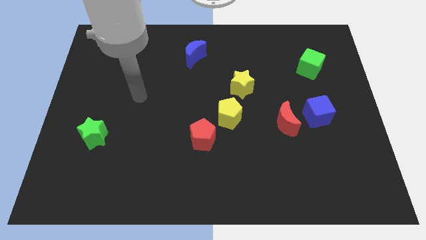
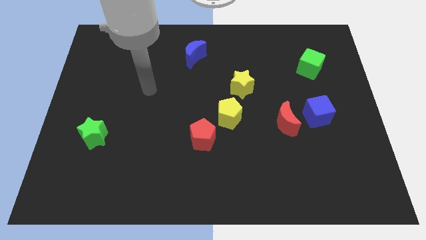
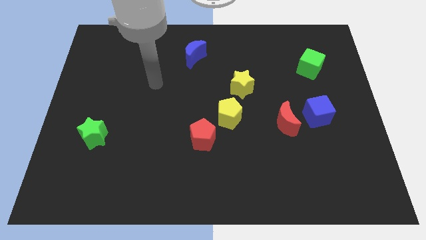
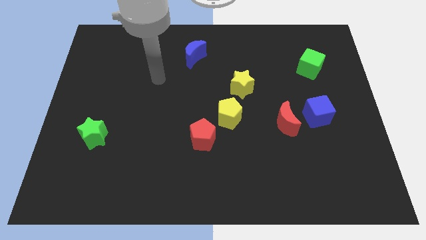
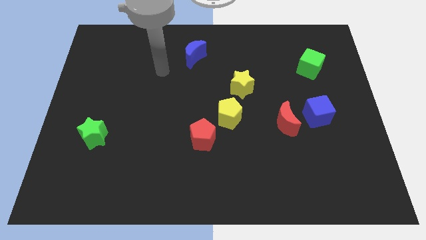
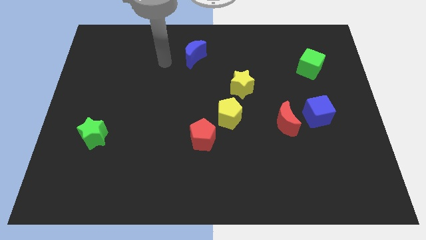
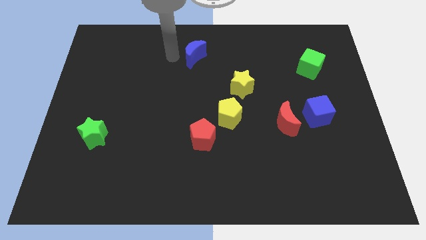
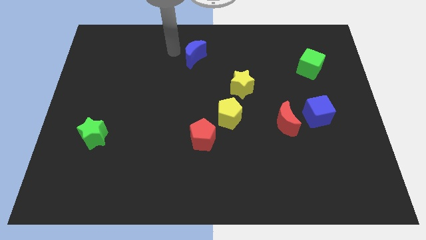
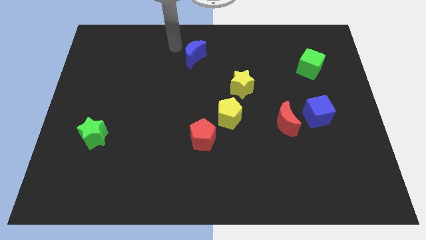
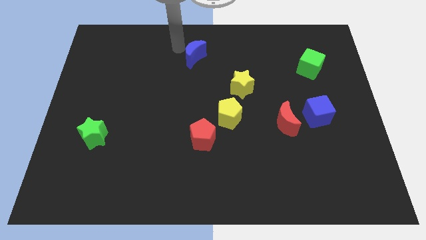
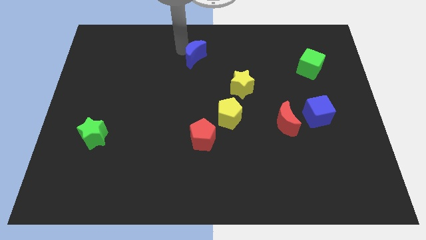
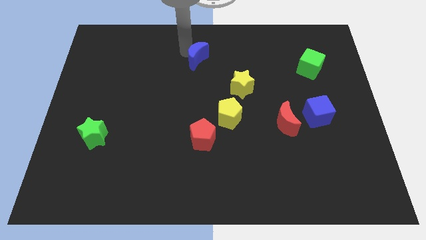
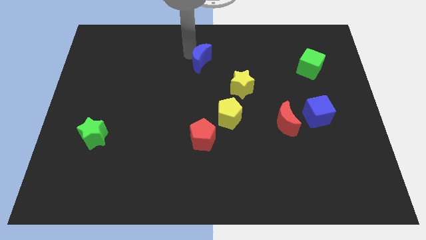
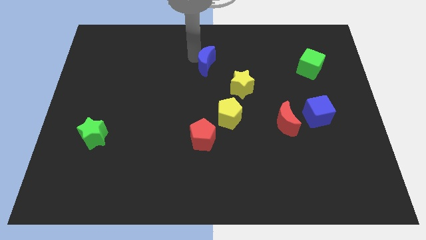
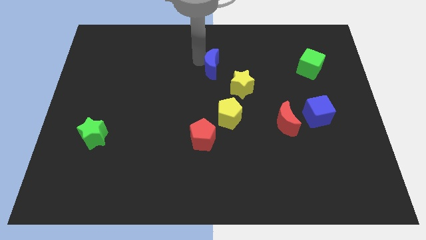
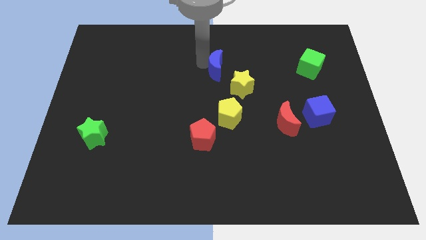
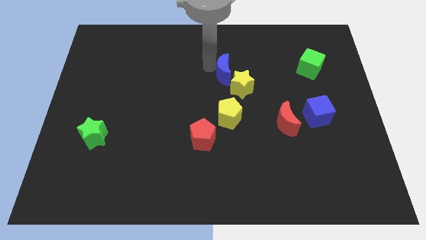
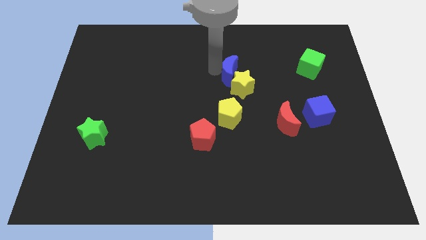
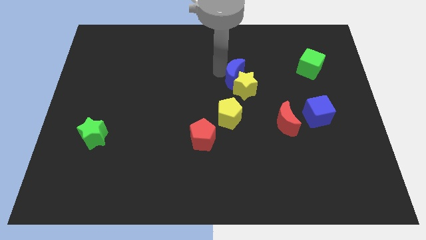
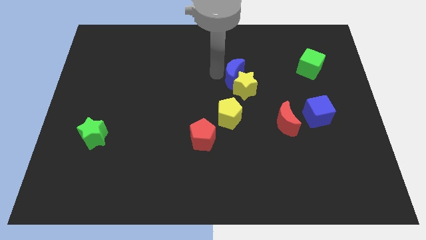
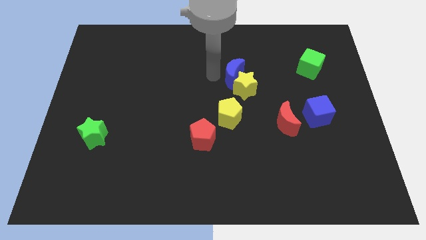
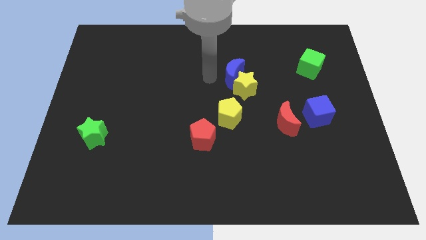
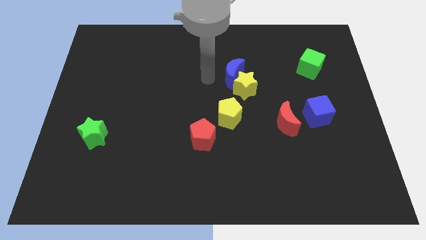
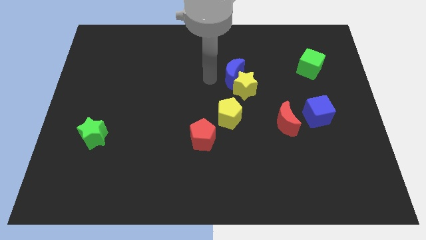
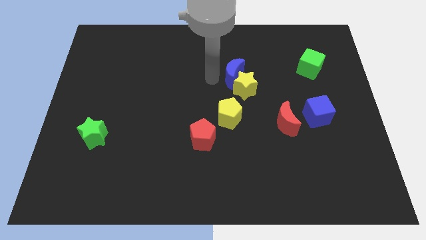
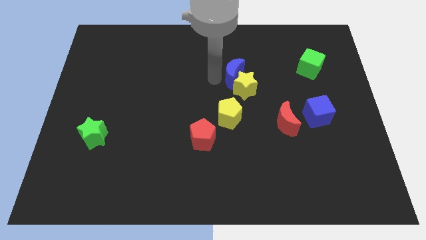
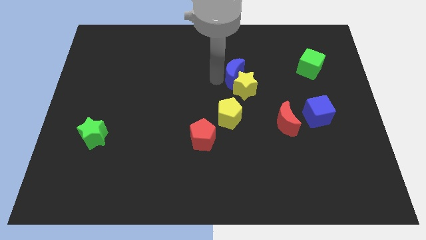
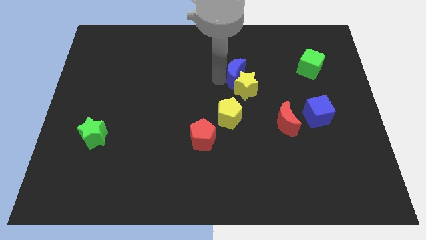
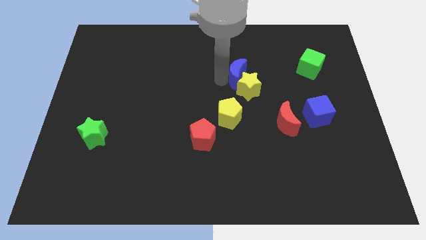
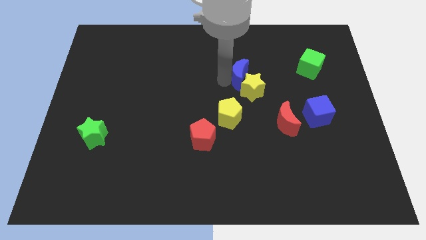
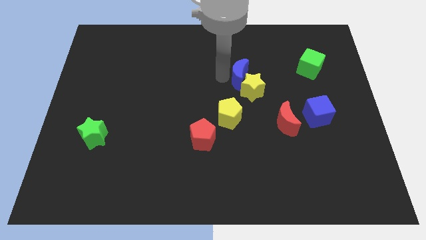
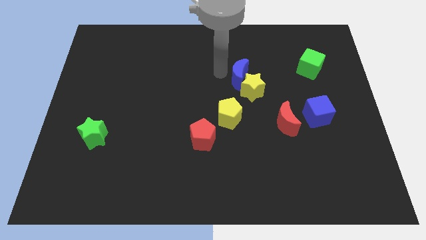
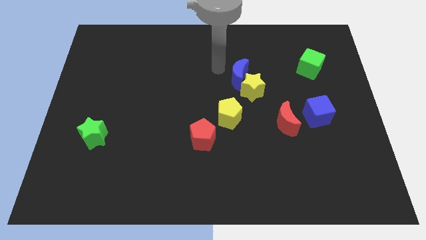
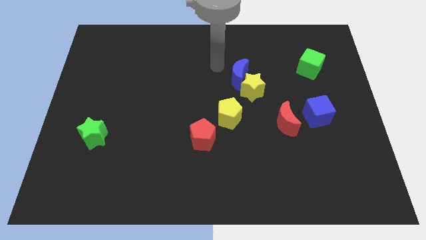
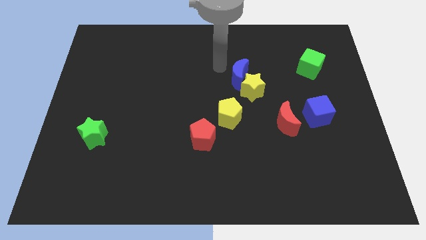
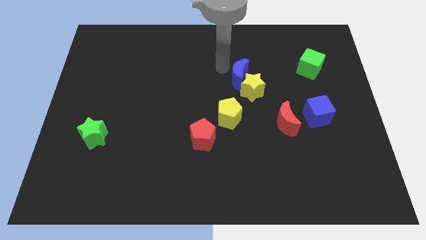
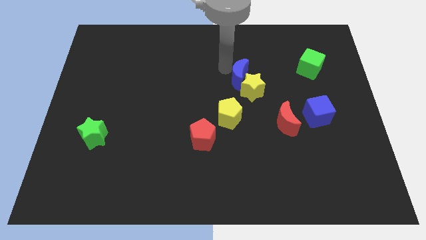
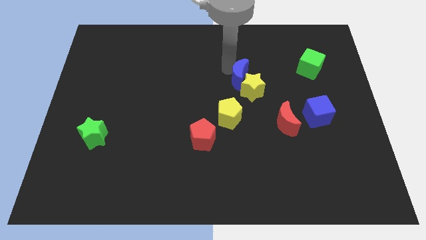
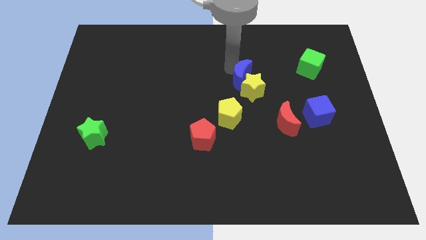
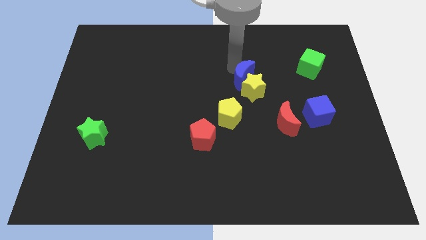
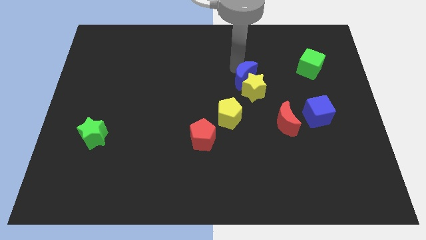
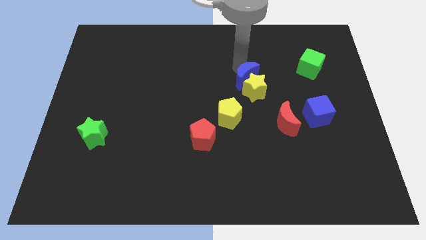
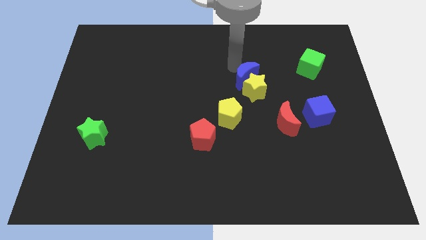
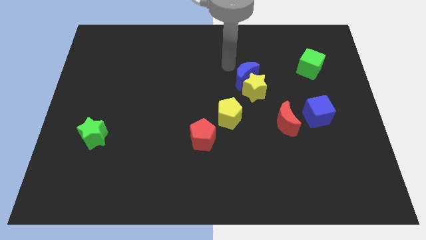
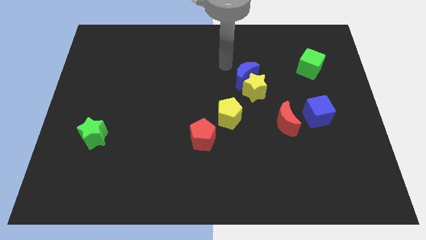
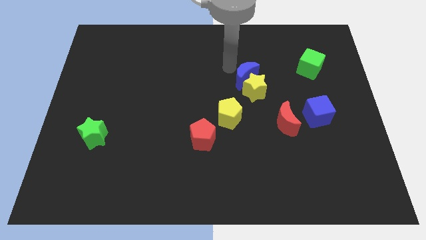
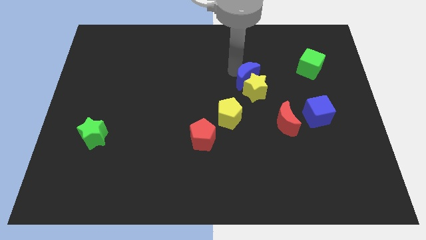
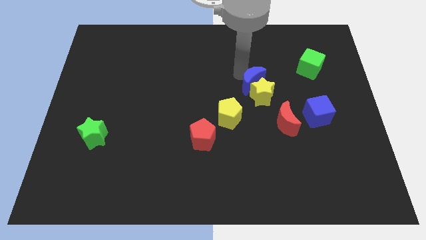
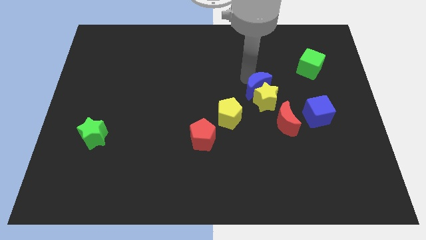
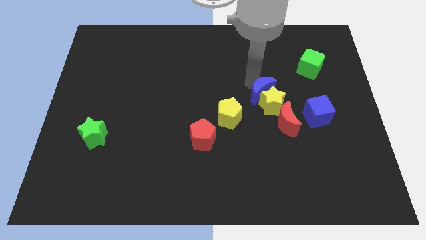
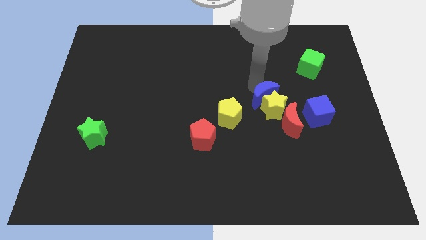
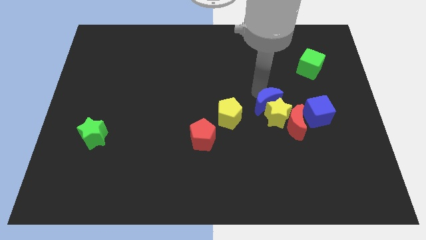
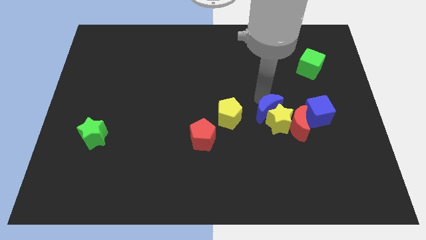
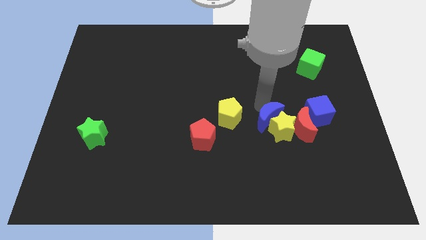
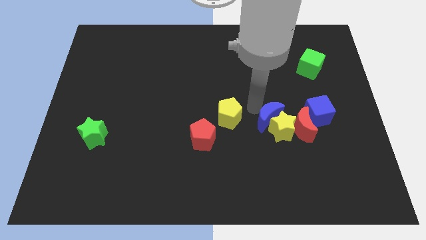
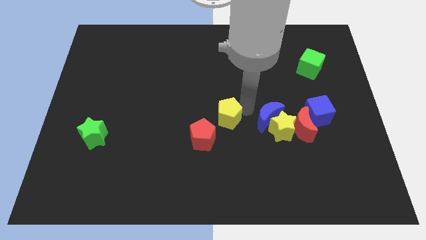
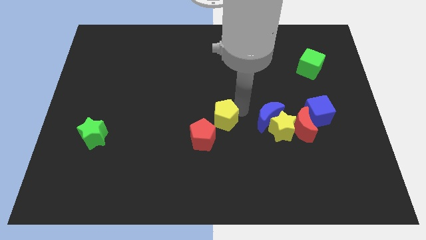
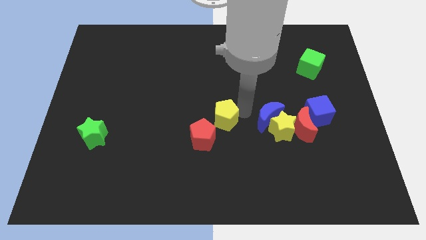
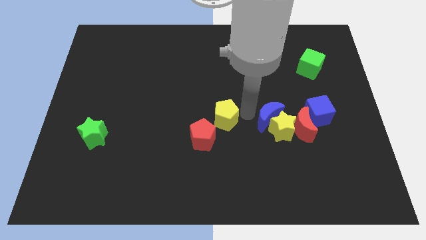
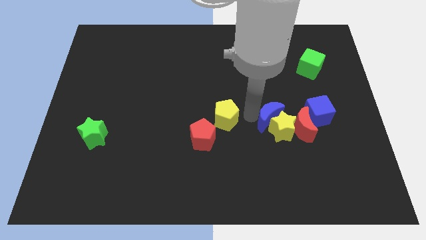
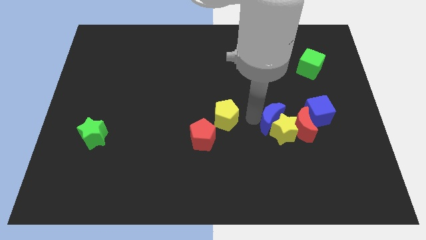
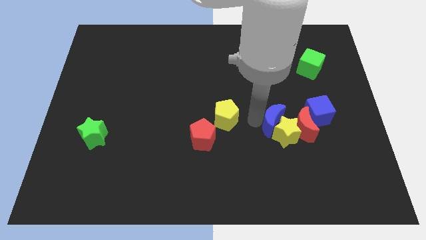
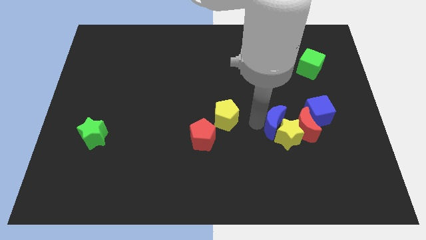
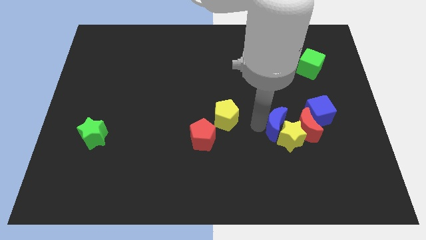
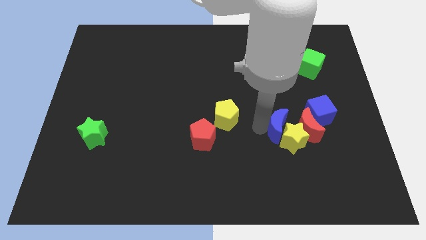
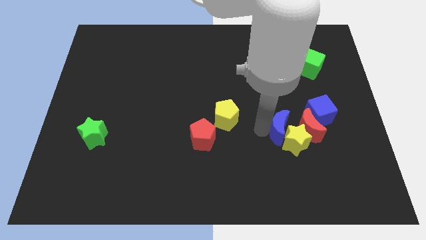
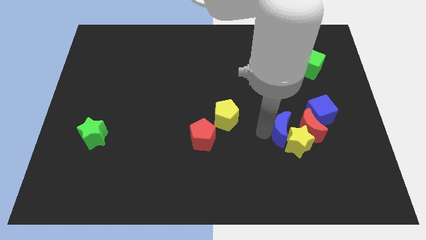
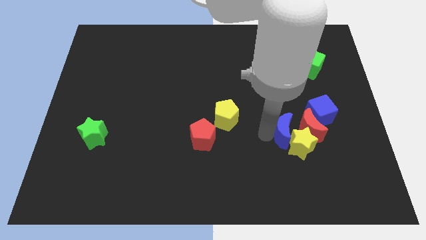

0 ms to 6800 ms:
put the blue moon towards the red moon
